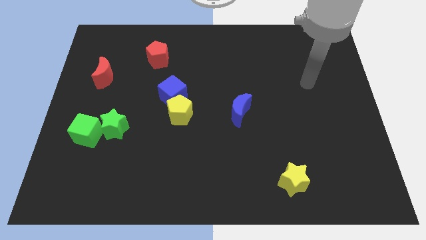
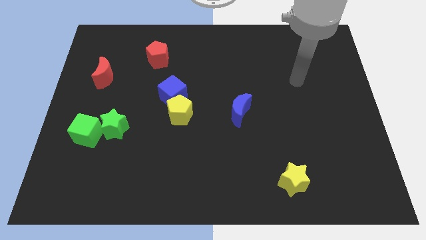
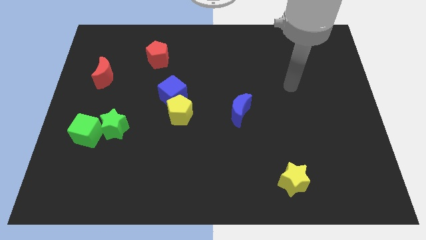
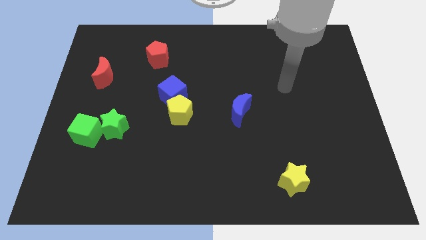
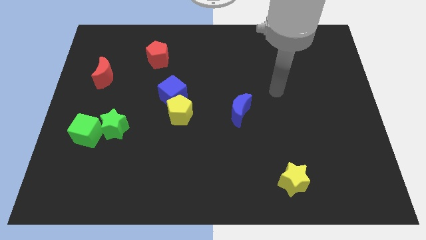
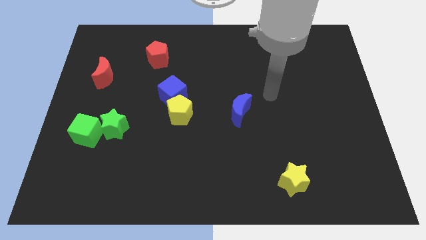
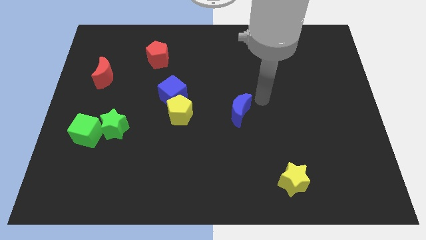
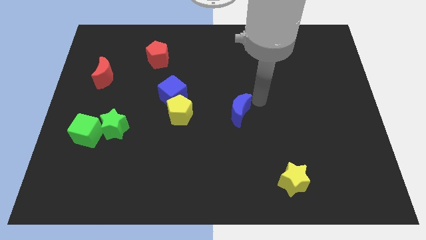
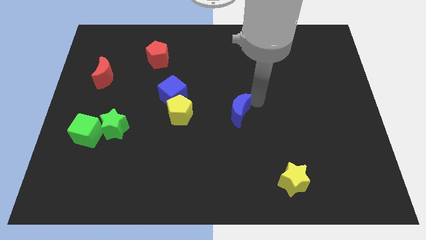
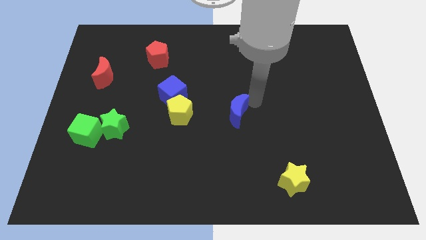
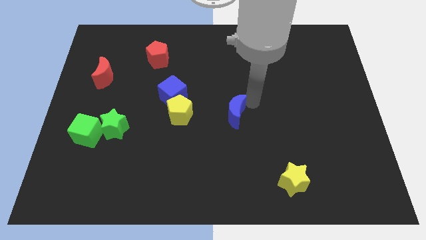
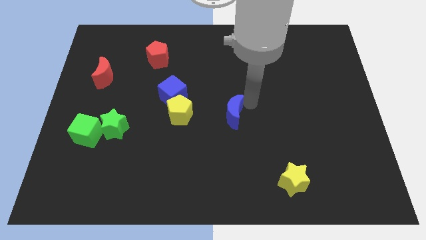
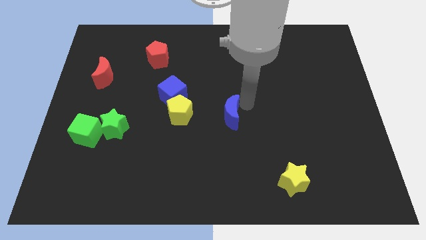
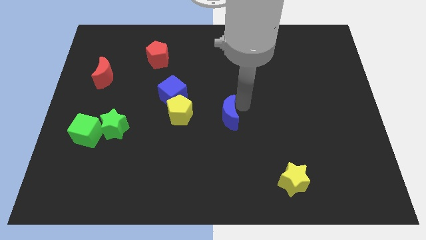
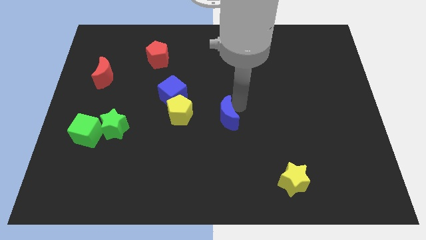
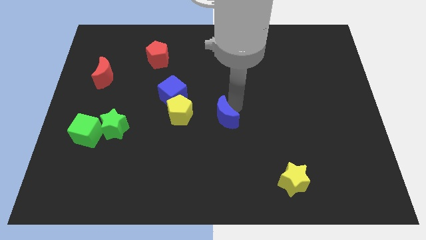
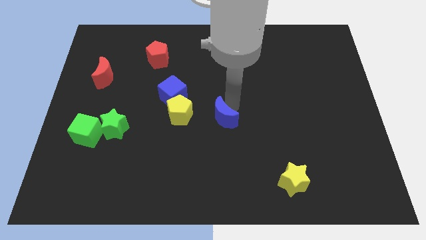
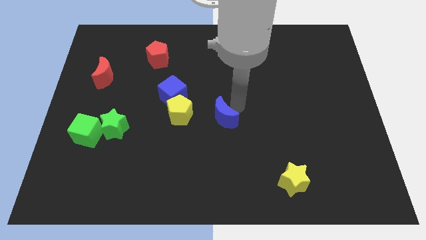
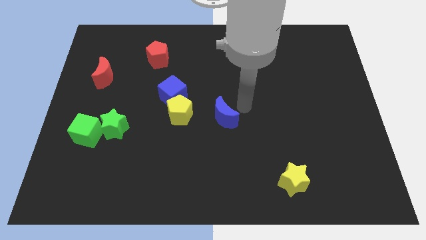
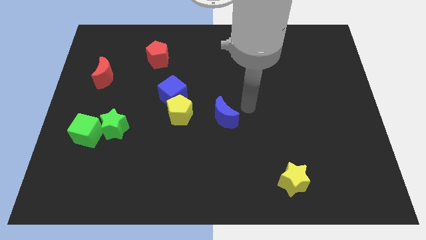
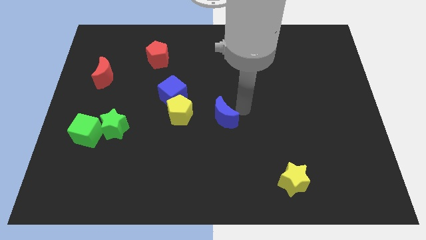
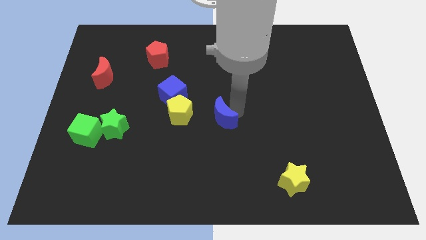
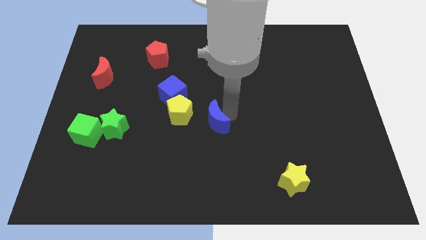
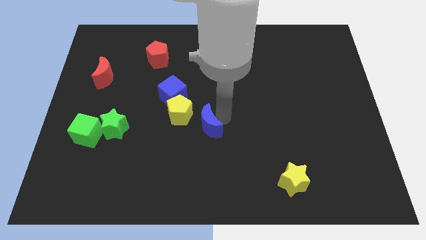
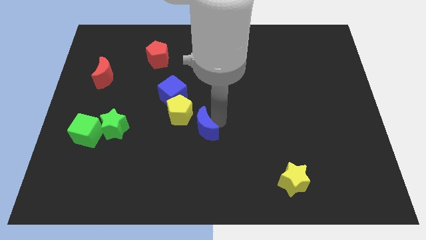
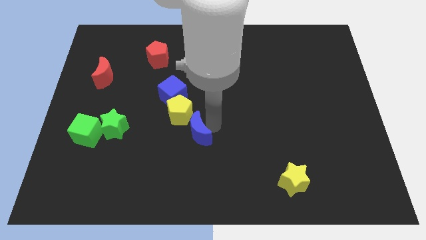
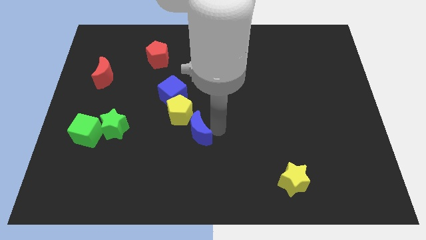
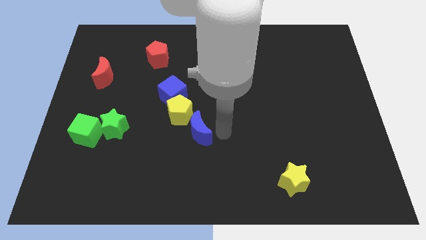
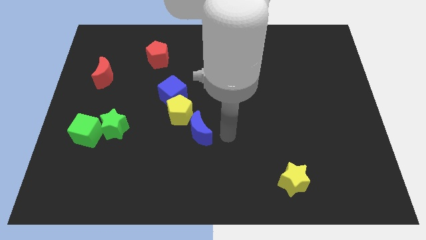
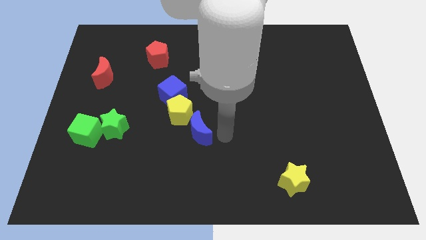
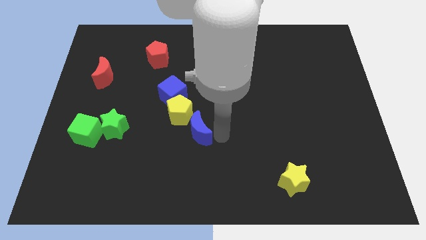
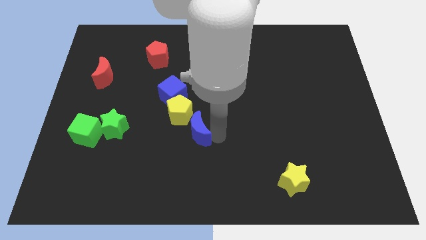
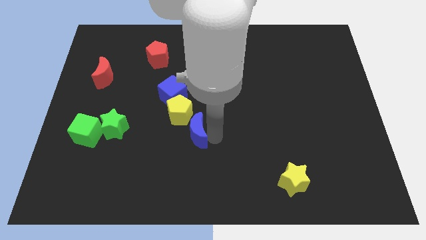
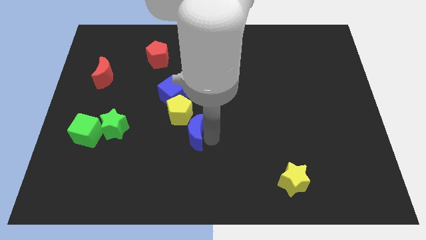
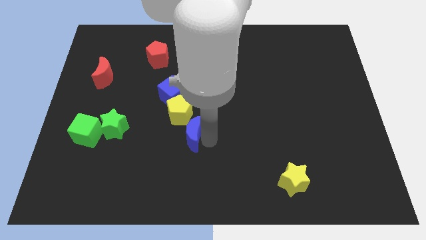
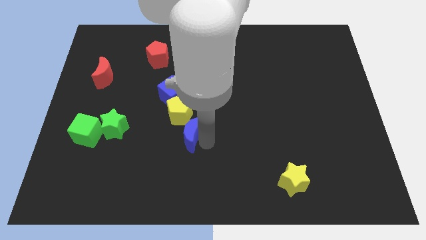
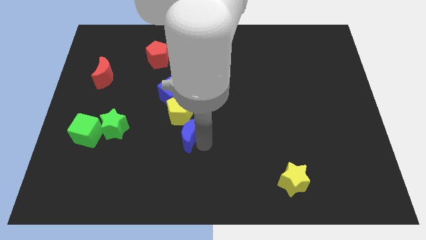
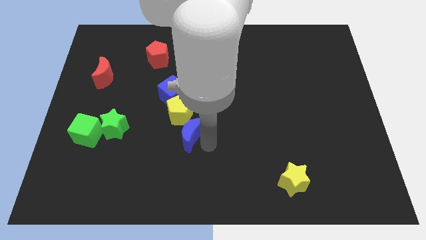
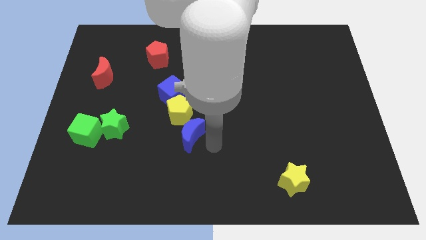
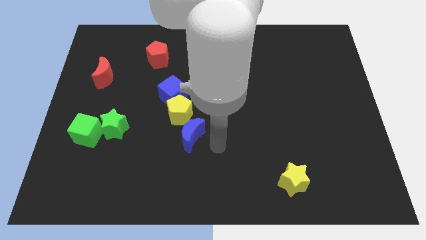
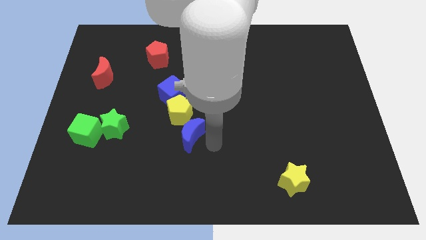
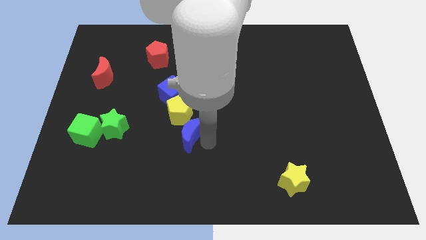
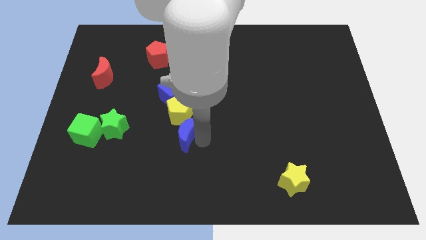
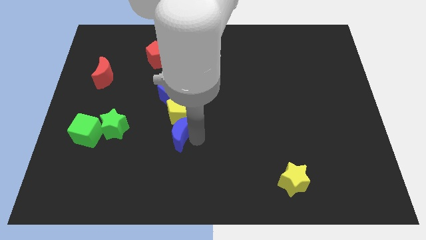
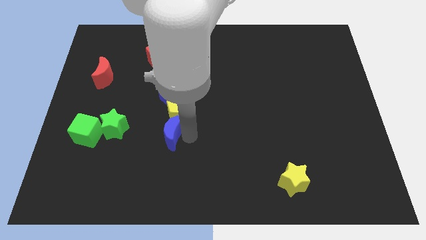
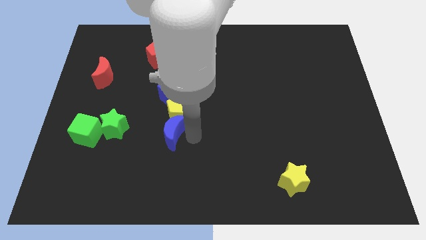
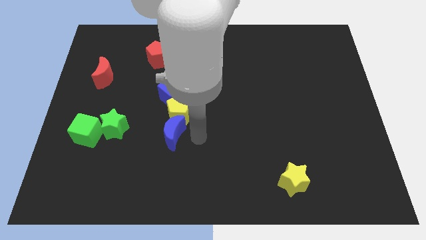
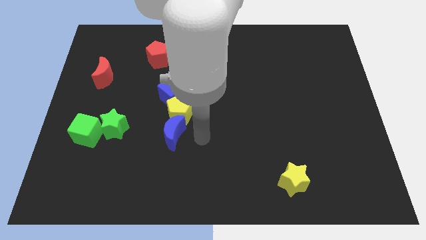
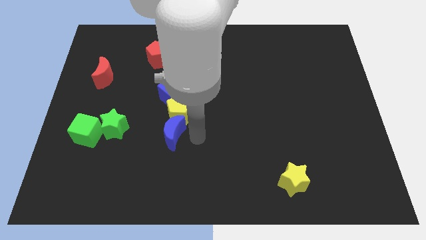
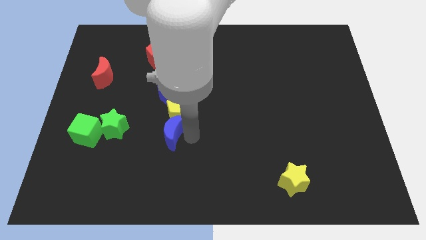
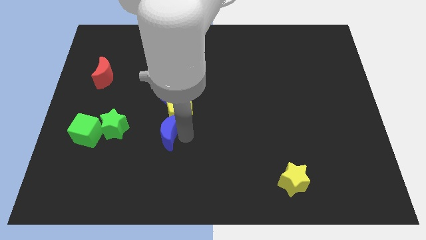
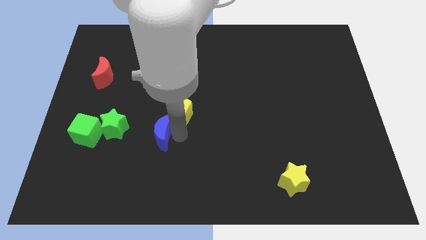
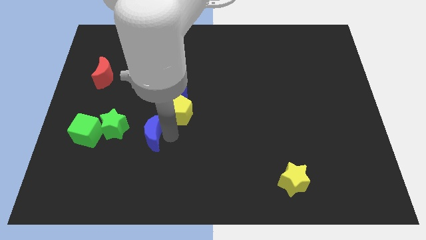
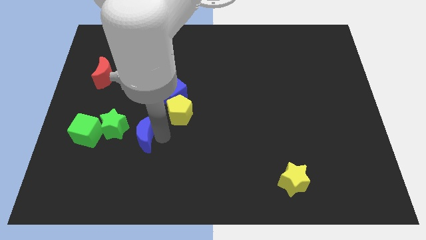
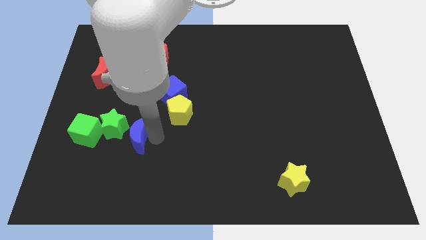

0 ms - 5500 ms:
slide the blue moon next to the green star

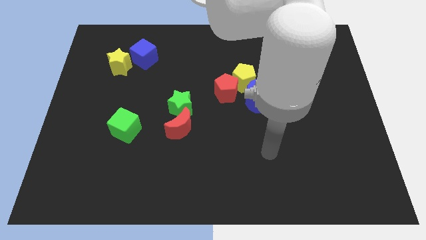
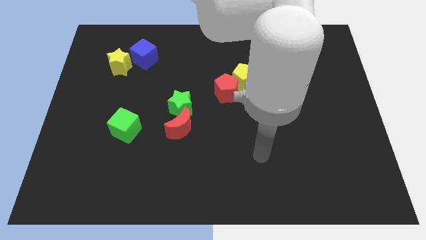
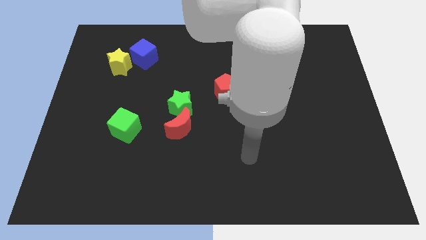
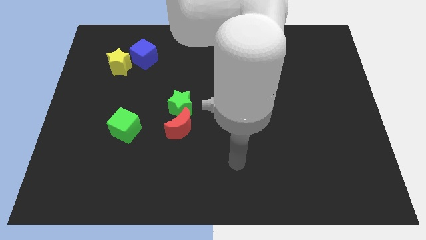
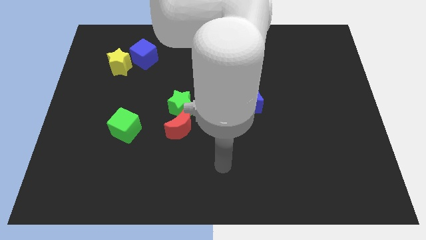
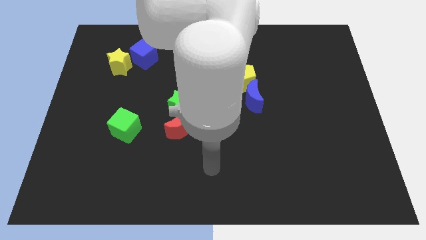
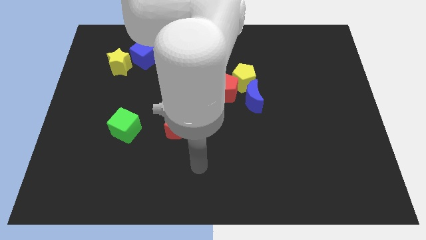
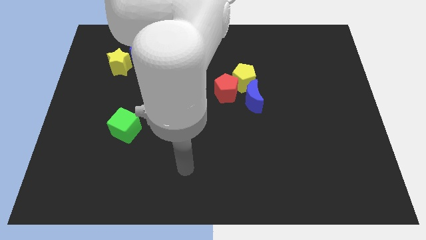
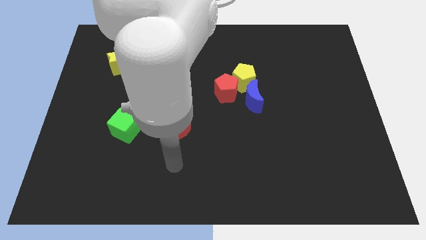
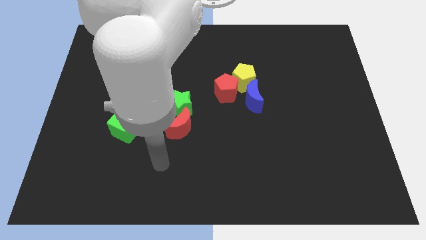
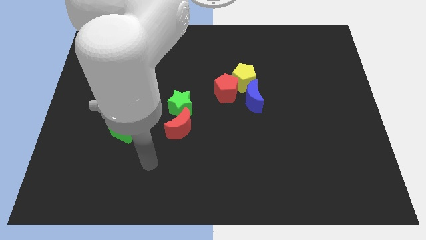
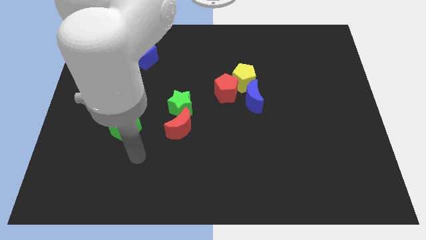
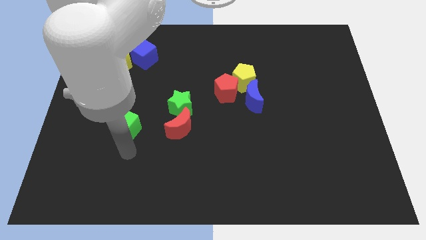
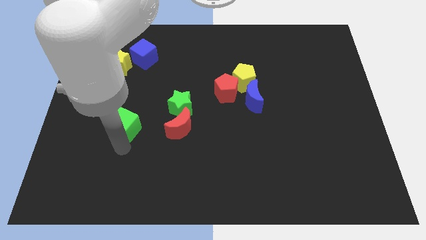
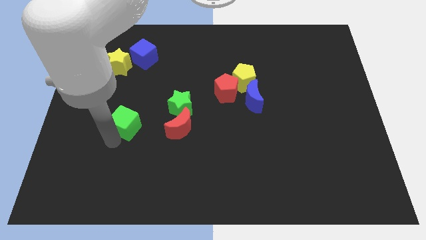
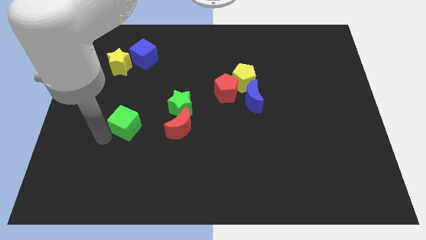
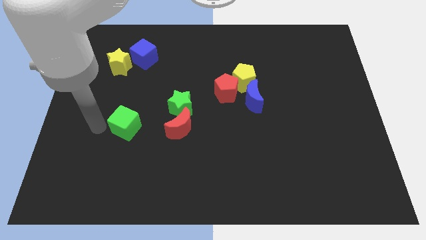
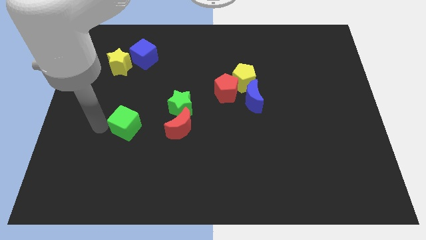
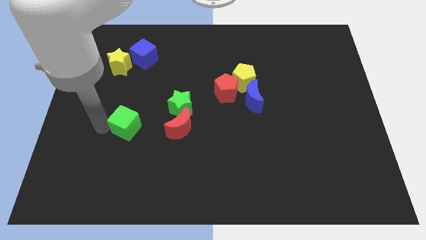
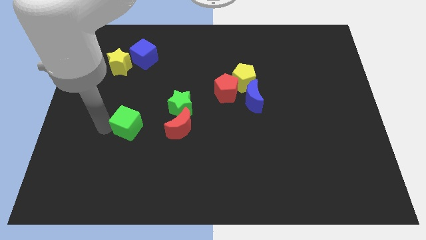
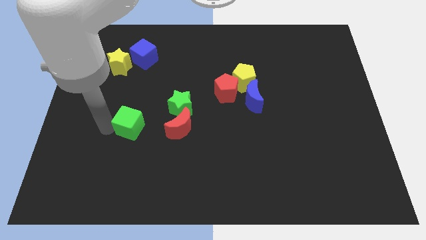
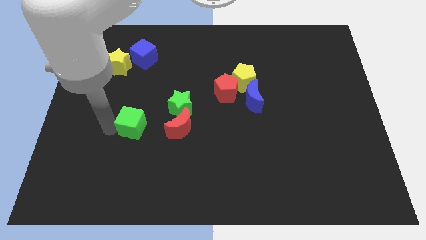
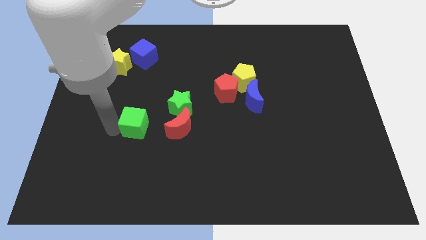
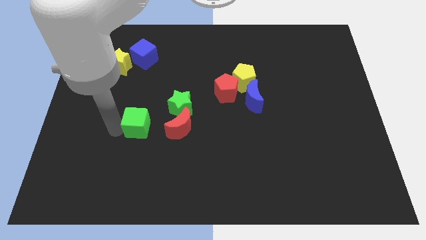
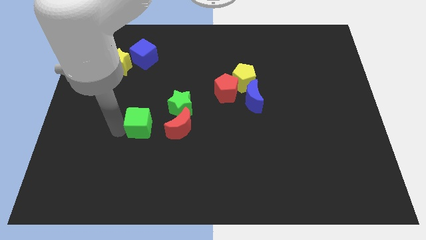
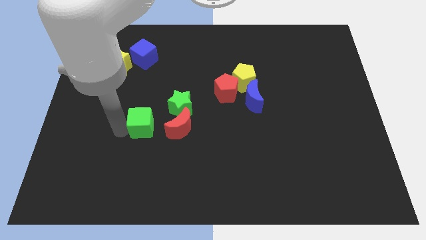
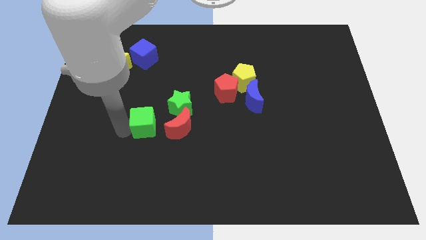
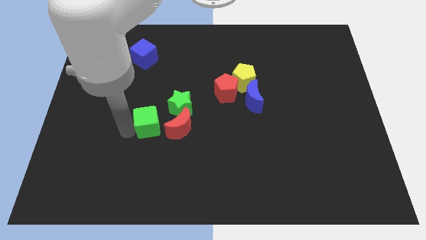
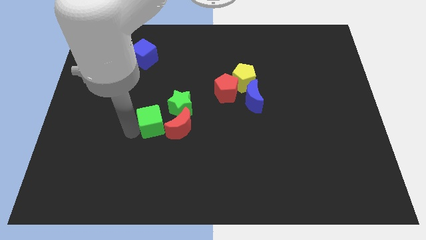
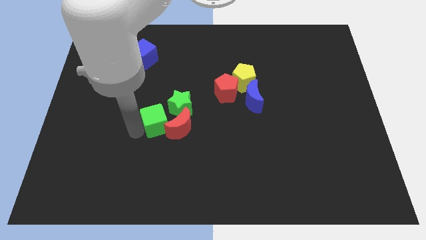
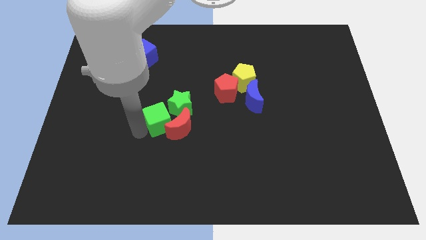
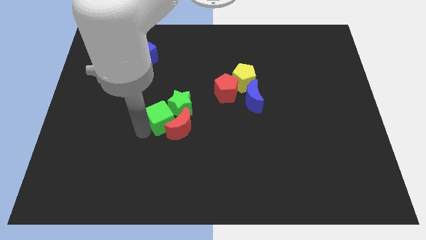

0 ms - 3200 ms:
push the green cube close to the green star

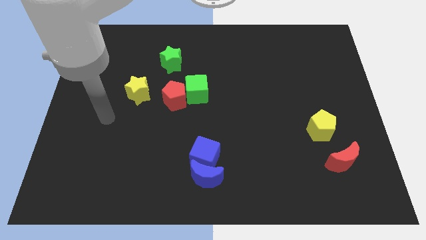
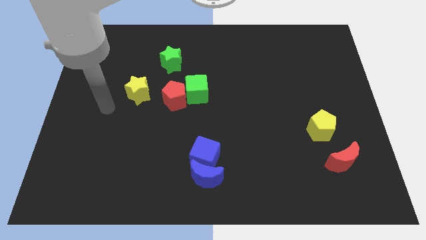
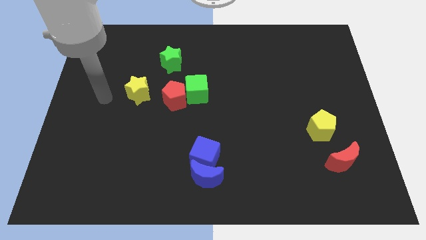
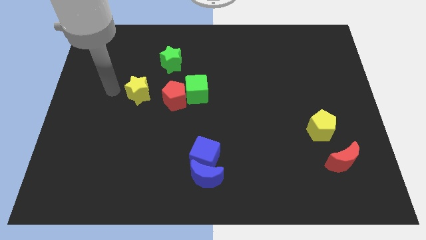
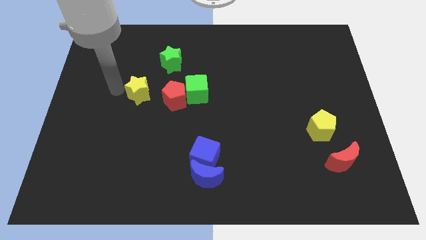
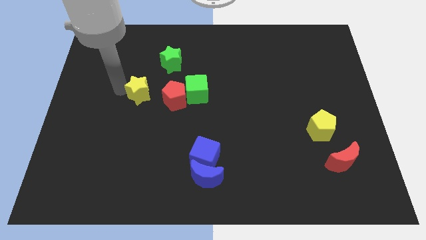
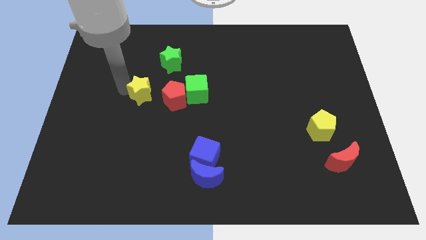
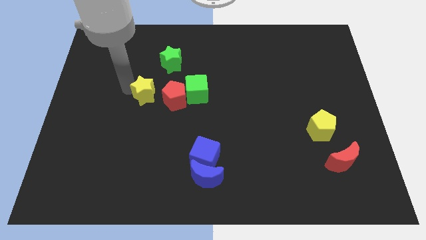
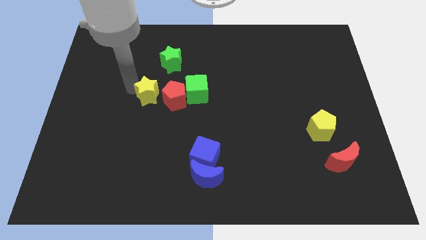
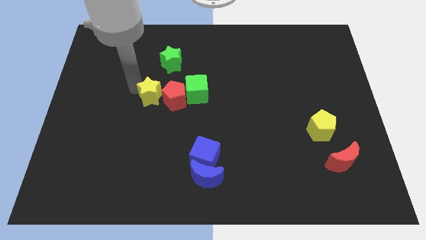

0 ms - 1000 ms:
push the yellow star towards the red pentagon
